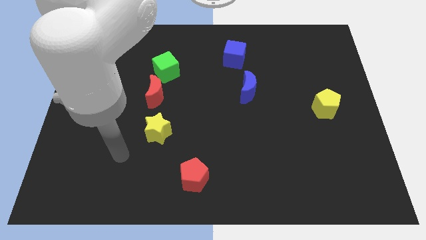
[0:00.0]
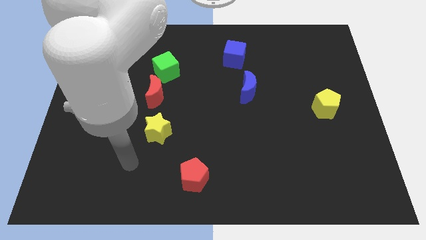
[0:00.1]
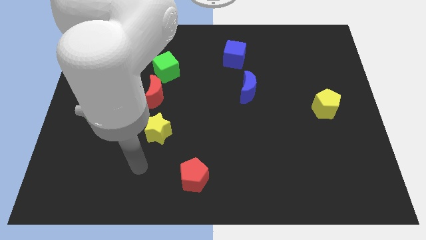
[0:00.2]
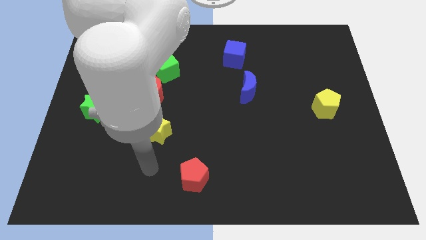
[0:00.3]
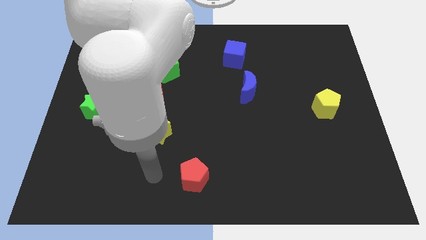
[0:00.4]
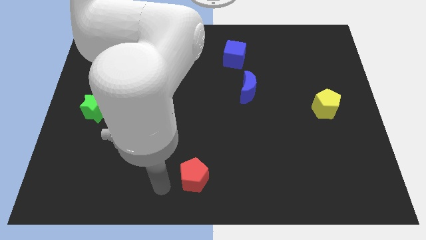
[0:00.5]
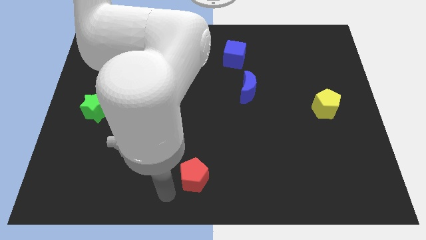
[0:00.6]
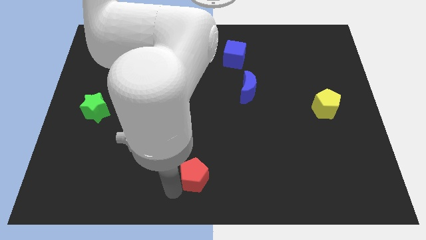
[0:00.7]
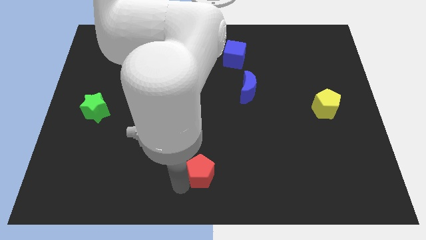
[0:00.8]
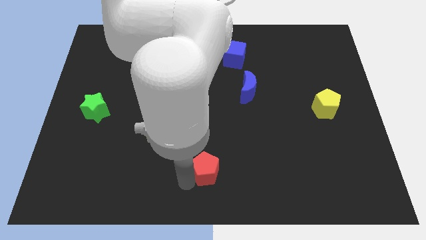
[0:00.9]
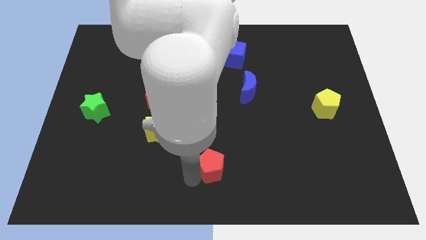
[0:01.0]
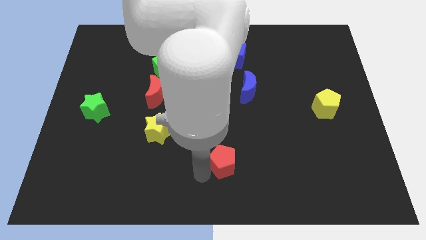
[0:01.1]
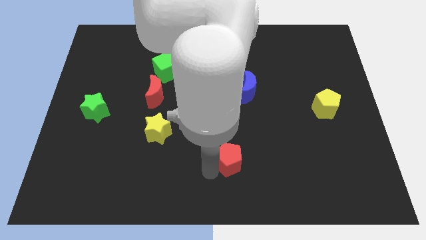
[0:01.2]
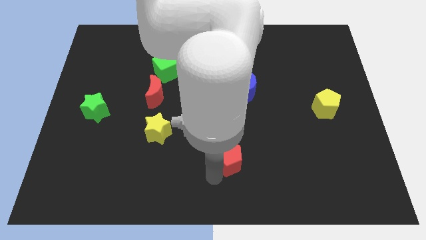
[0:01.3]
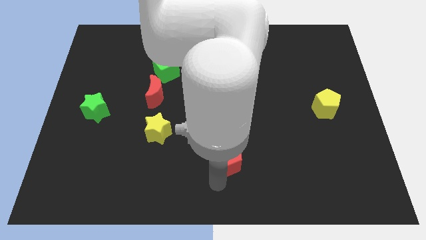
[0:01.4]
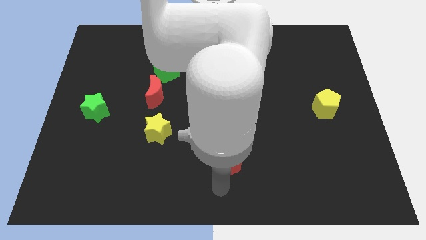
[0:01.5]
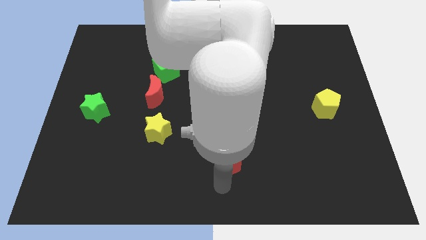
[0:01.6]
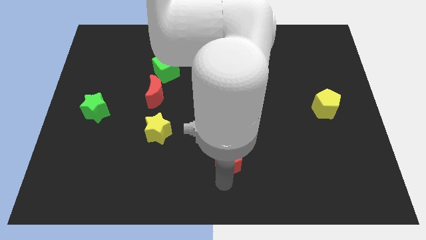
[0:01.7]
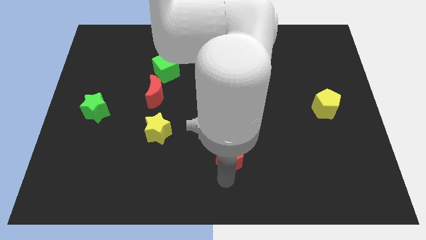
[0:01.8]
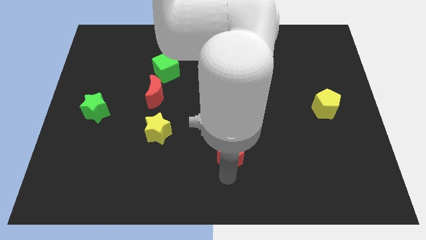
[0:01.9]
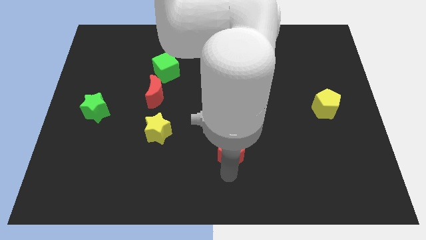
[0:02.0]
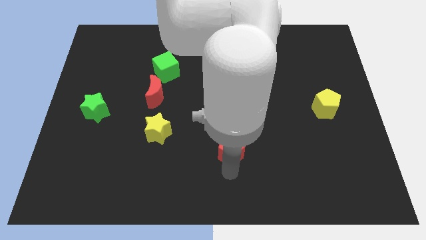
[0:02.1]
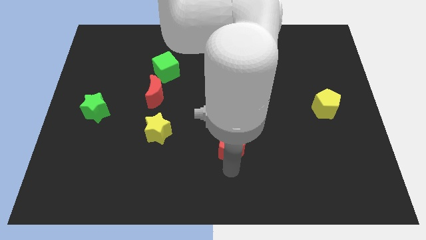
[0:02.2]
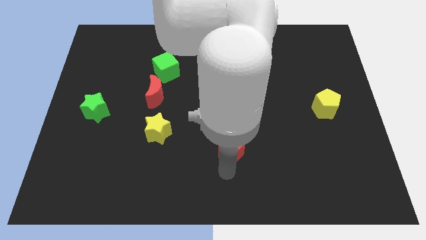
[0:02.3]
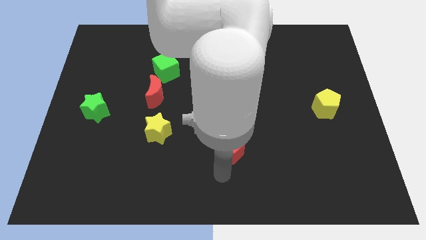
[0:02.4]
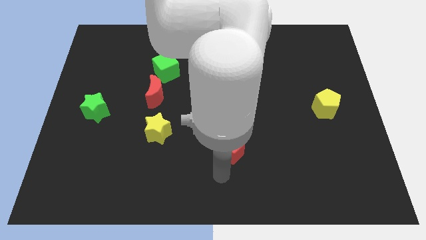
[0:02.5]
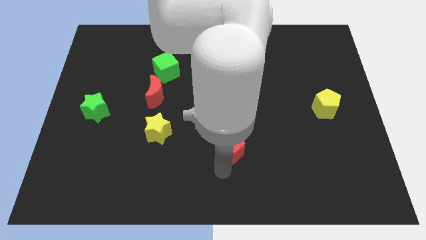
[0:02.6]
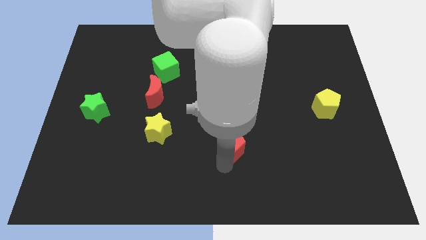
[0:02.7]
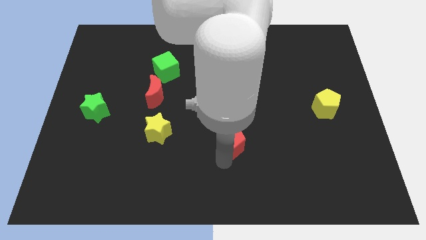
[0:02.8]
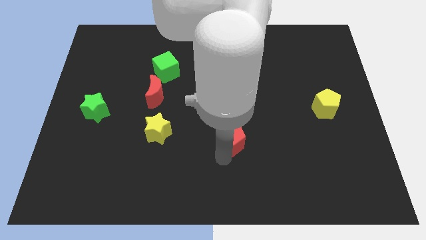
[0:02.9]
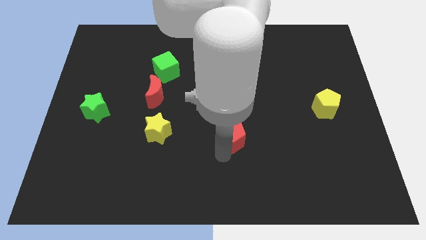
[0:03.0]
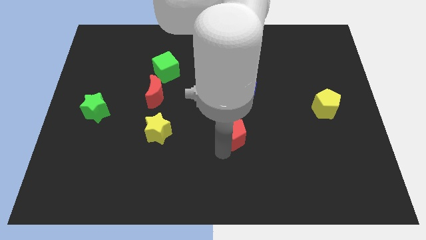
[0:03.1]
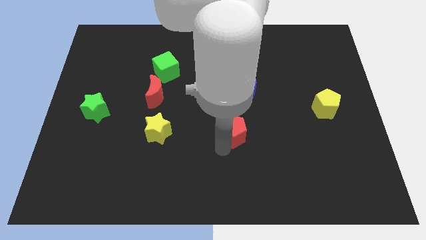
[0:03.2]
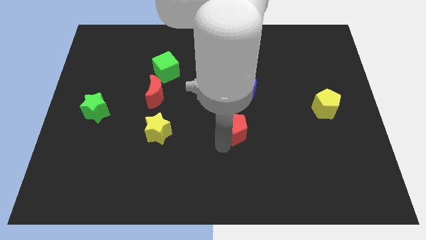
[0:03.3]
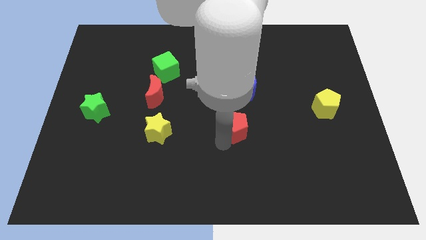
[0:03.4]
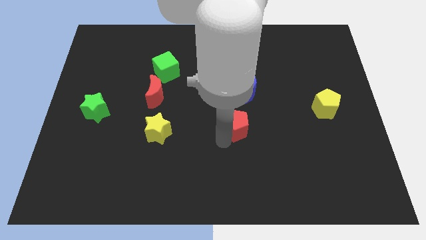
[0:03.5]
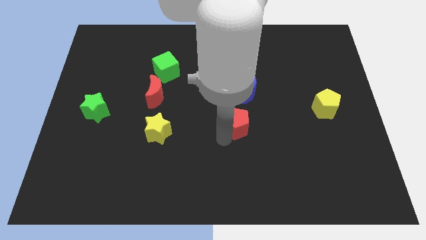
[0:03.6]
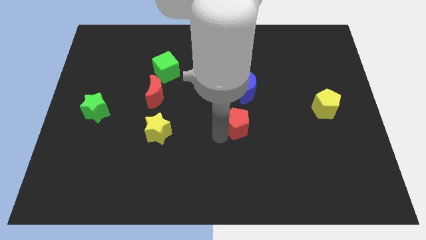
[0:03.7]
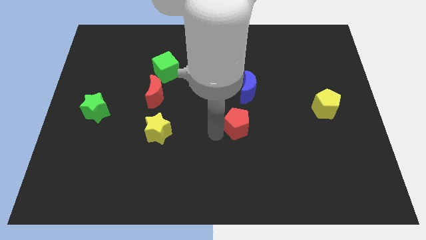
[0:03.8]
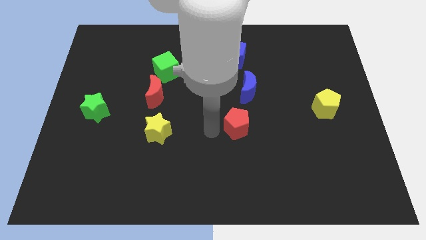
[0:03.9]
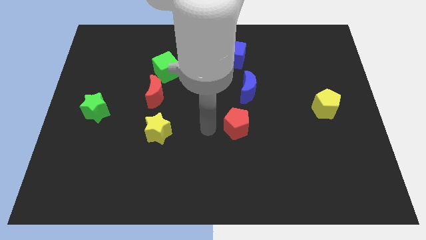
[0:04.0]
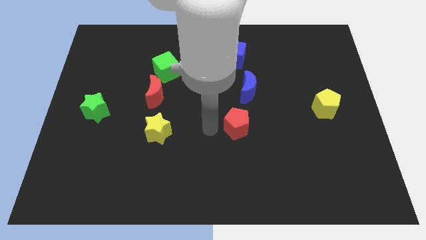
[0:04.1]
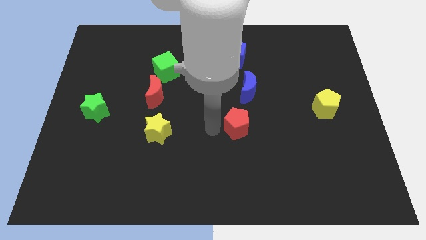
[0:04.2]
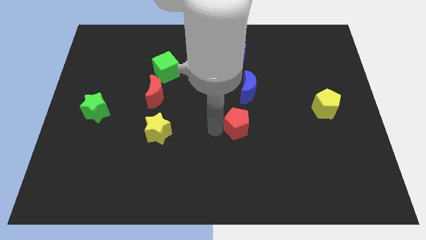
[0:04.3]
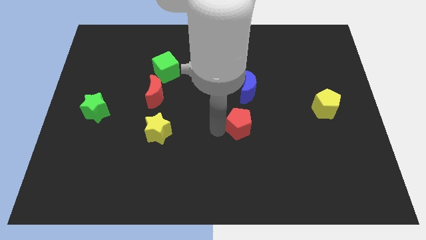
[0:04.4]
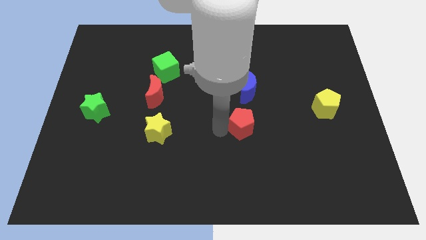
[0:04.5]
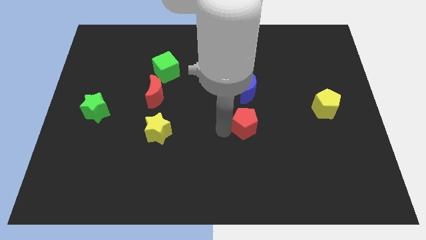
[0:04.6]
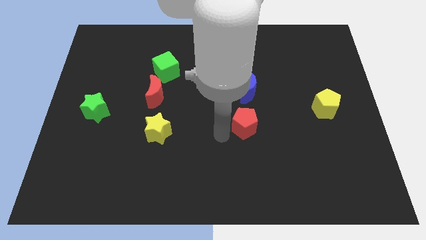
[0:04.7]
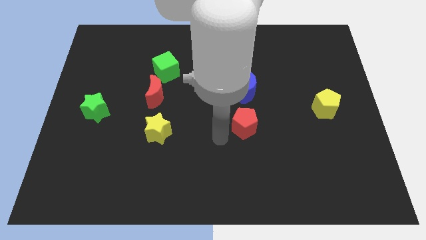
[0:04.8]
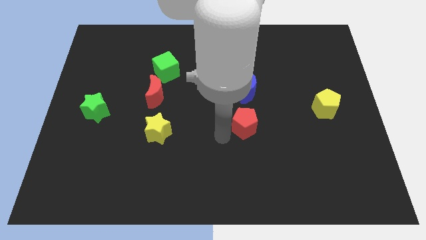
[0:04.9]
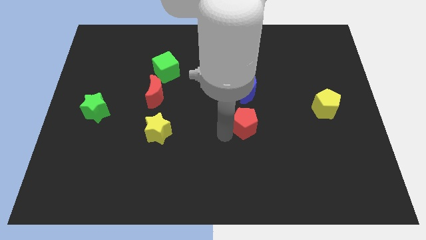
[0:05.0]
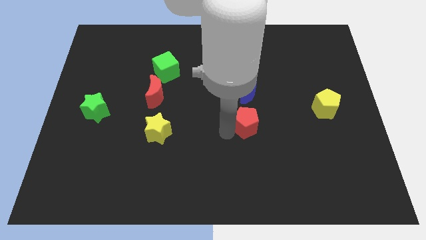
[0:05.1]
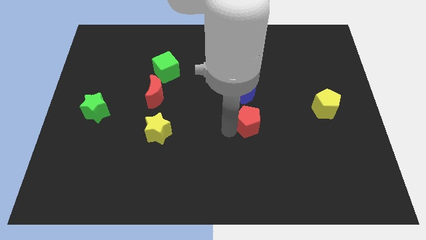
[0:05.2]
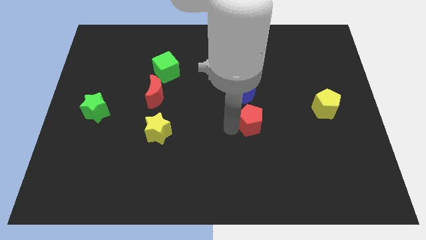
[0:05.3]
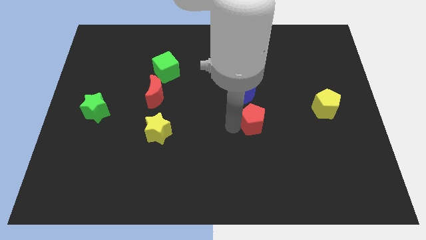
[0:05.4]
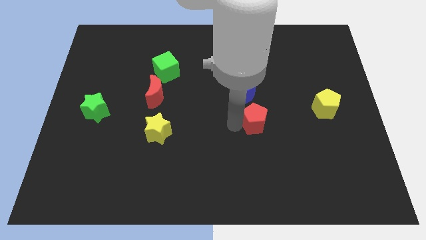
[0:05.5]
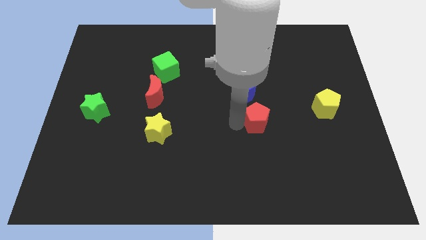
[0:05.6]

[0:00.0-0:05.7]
push the red pentagon diagonally up and to the right

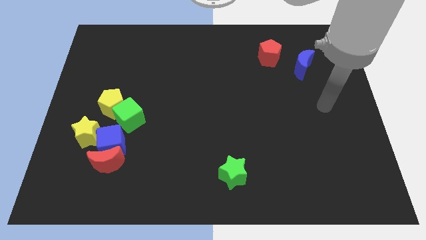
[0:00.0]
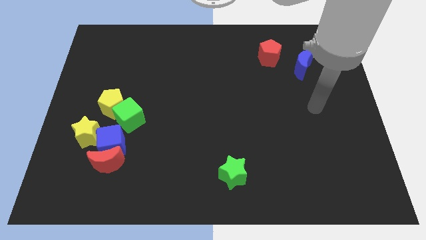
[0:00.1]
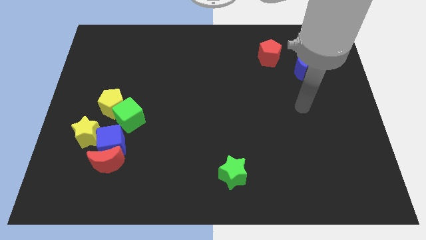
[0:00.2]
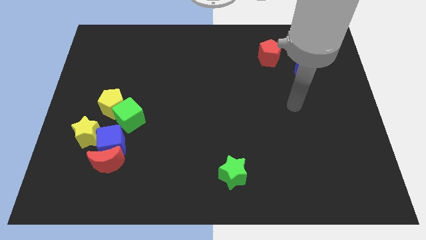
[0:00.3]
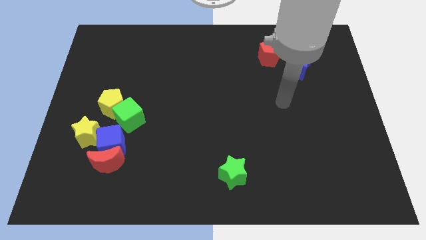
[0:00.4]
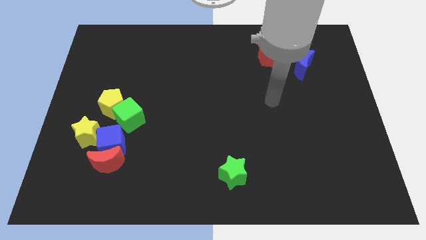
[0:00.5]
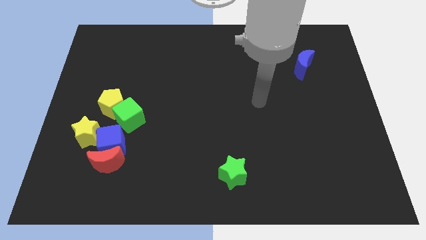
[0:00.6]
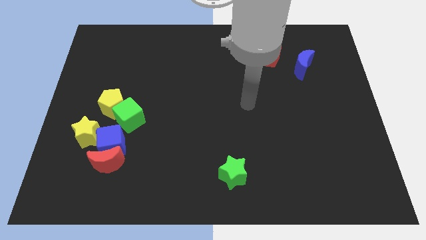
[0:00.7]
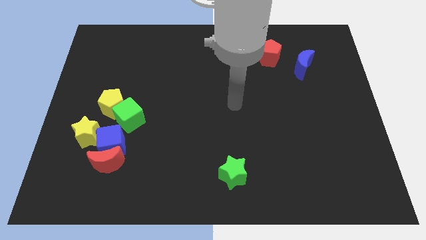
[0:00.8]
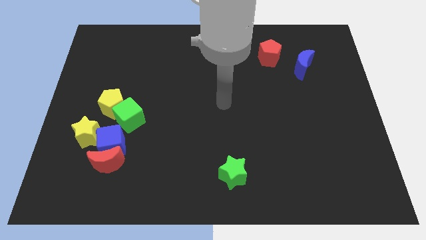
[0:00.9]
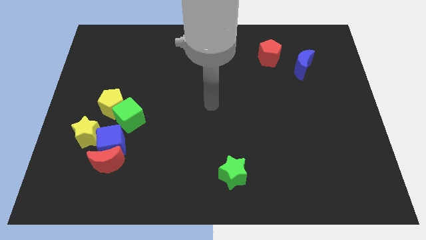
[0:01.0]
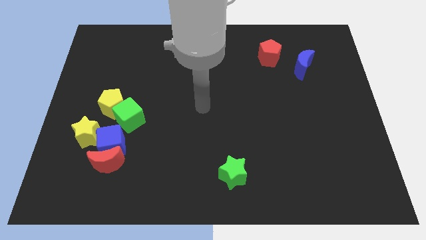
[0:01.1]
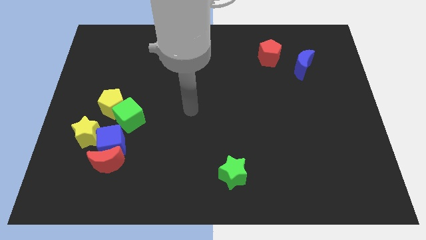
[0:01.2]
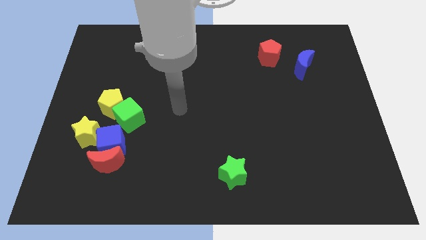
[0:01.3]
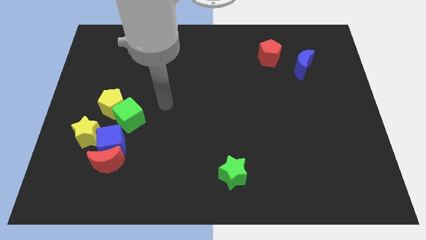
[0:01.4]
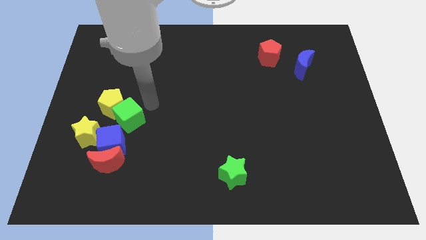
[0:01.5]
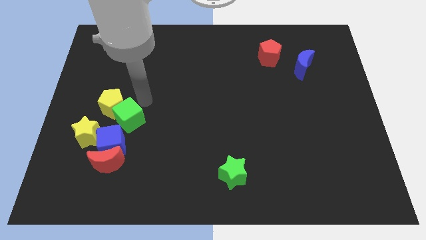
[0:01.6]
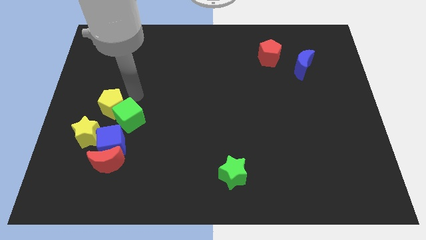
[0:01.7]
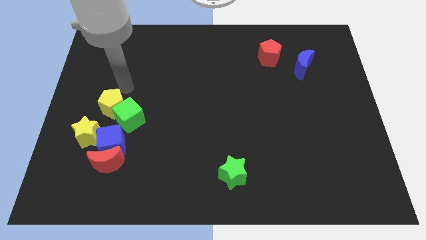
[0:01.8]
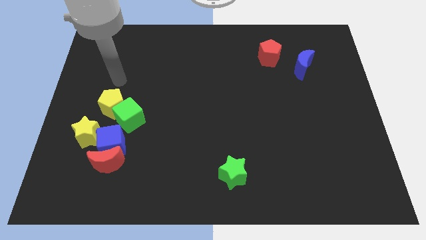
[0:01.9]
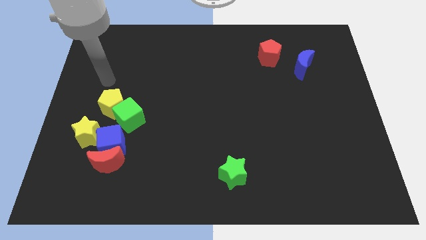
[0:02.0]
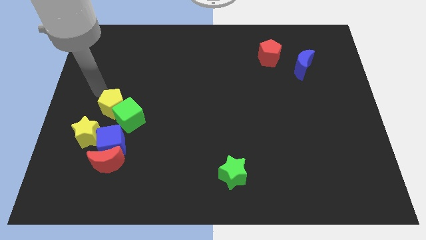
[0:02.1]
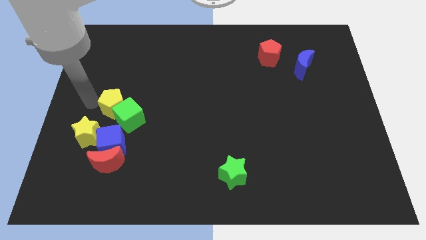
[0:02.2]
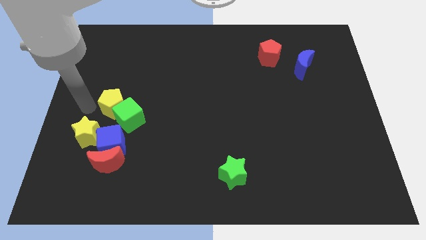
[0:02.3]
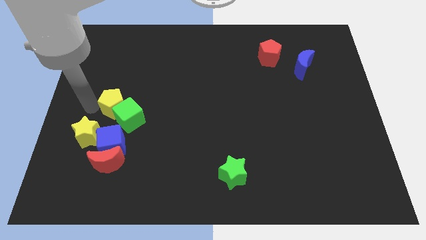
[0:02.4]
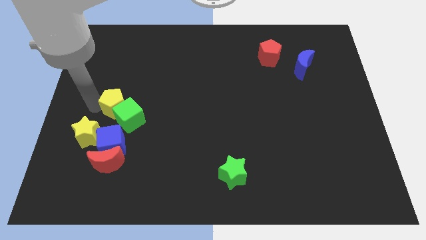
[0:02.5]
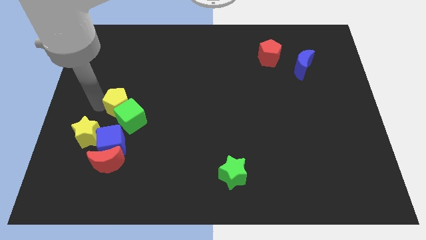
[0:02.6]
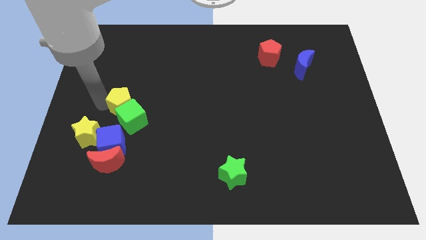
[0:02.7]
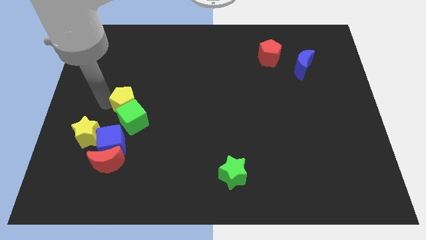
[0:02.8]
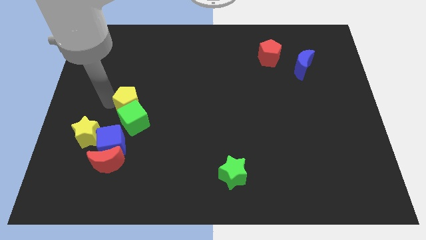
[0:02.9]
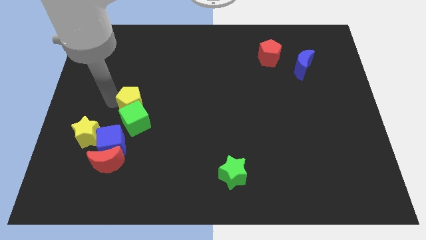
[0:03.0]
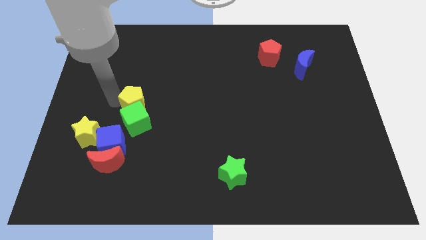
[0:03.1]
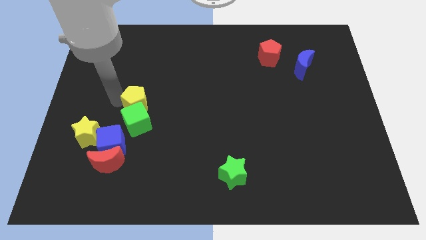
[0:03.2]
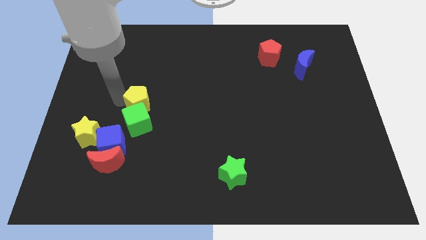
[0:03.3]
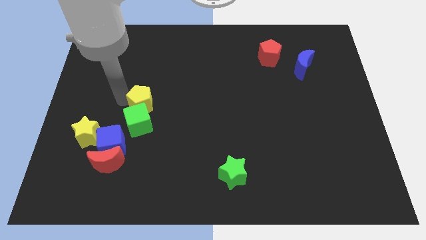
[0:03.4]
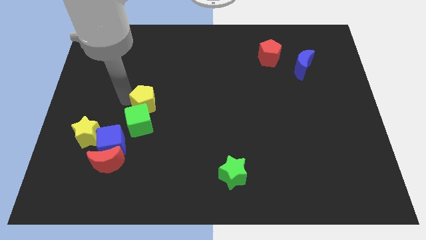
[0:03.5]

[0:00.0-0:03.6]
move the yellow pentagon slightly to the right
